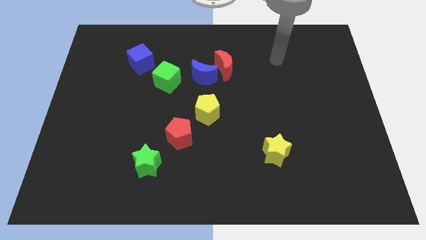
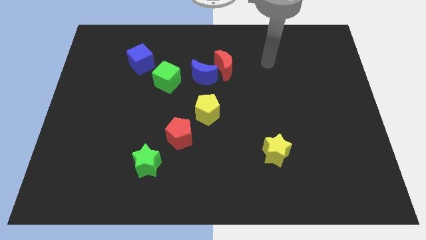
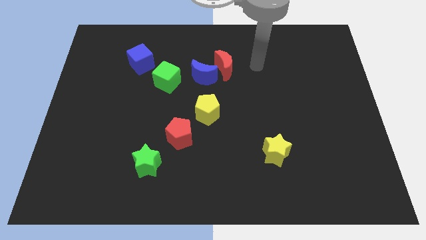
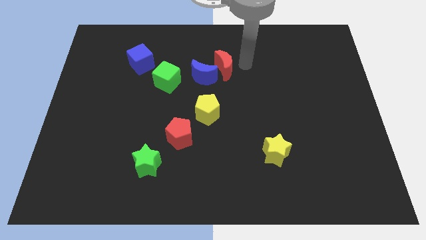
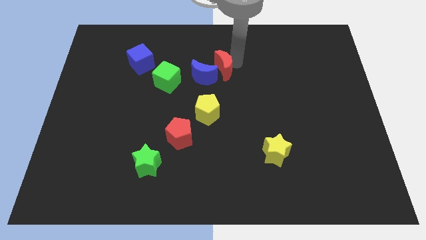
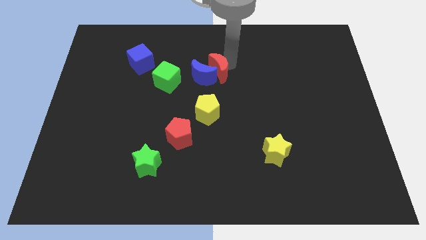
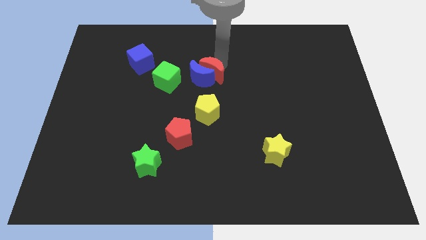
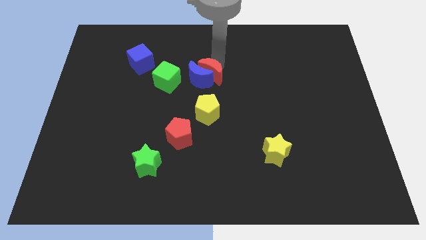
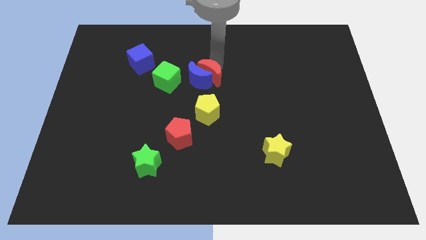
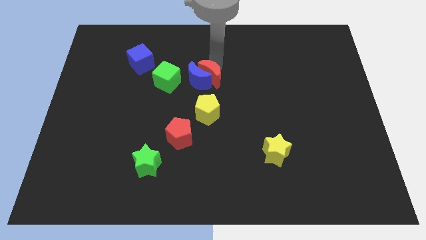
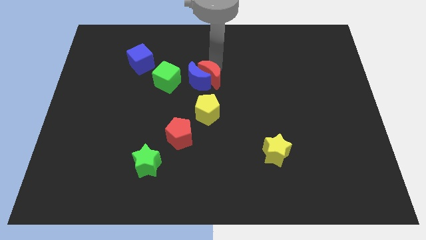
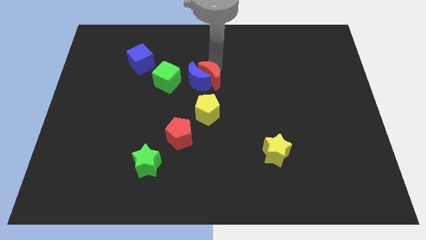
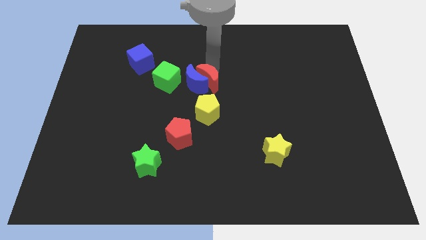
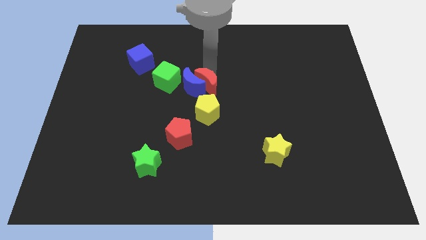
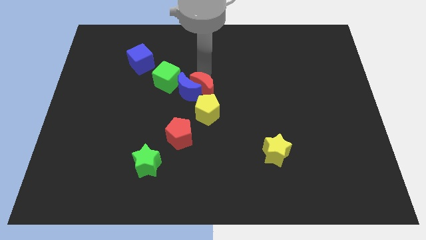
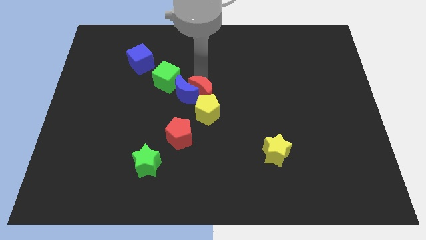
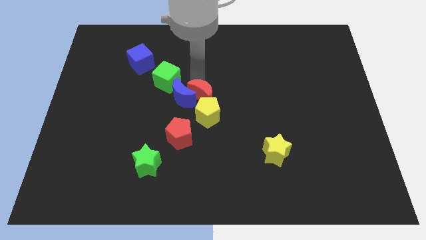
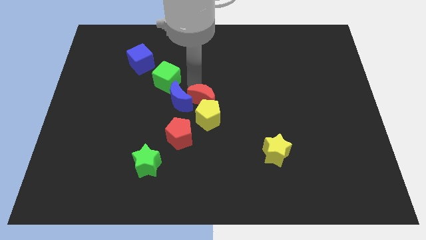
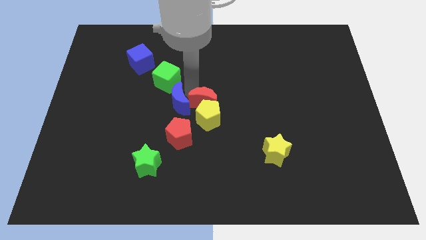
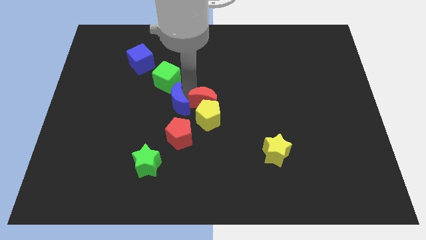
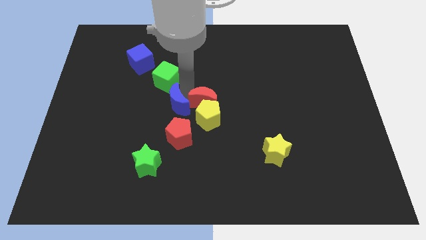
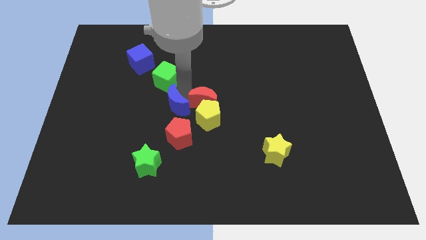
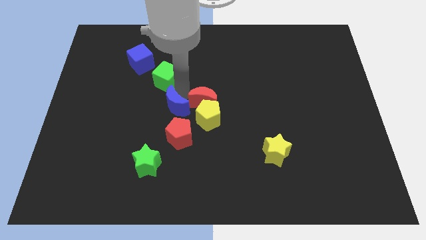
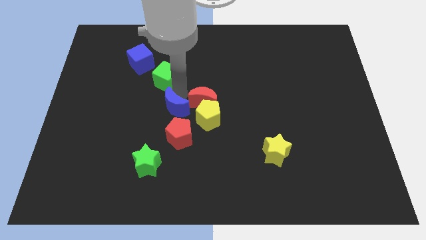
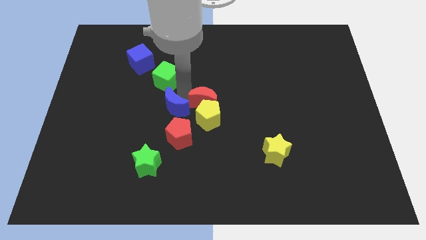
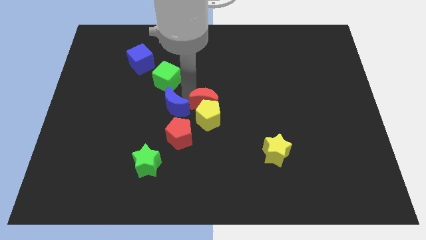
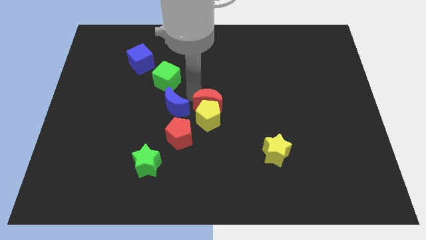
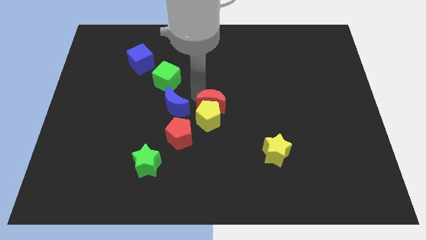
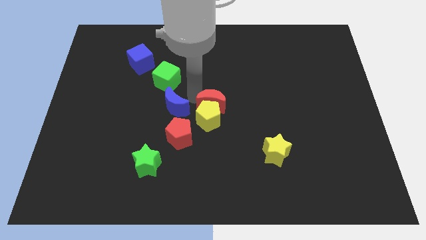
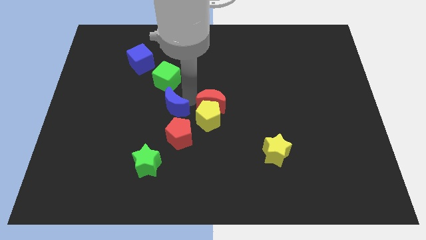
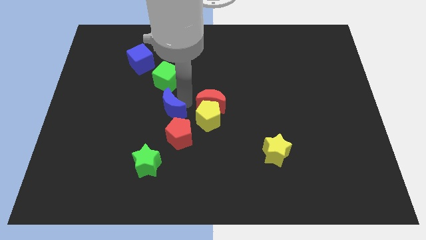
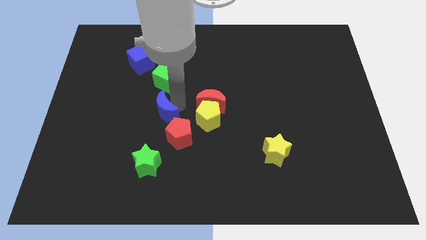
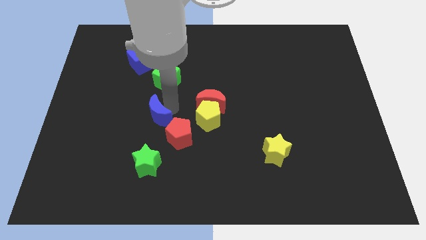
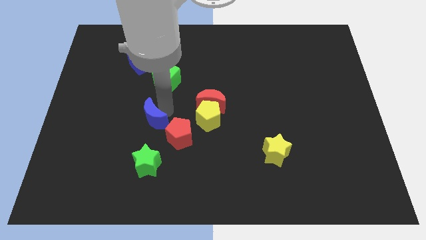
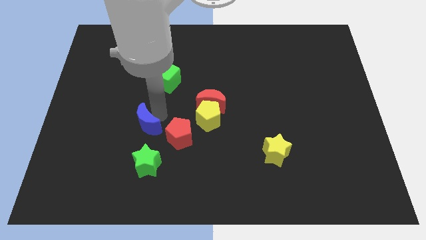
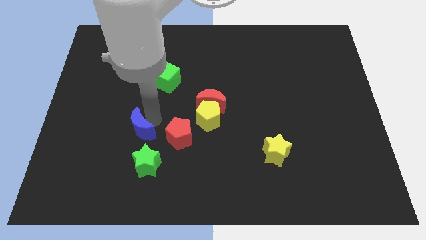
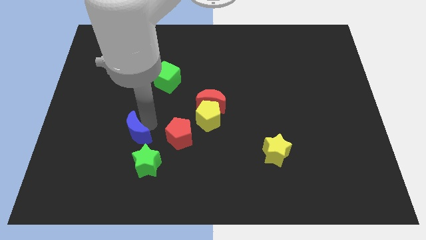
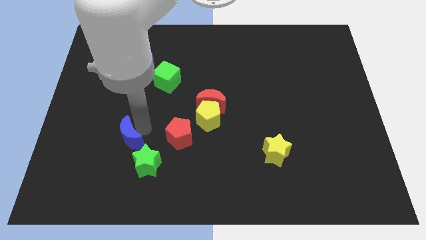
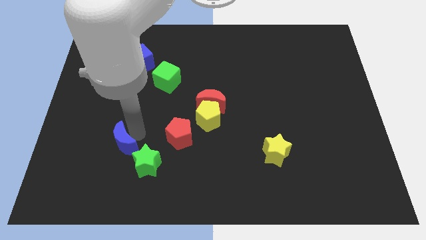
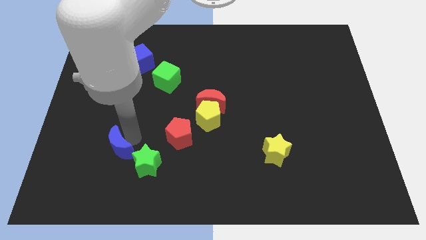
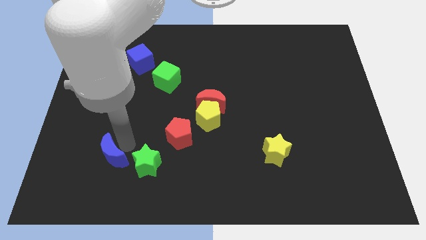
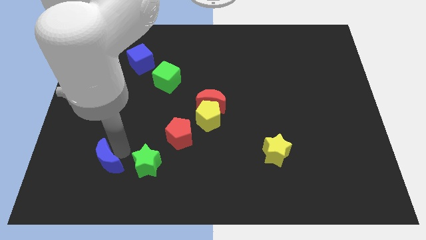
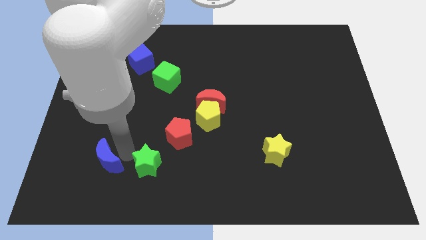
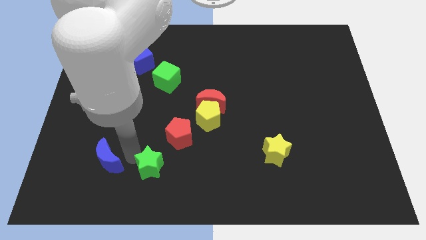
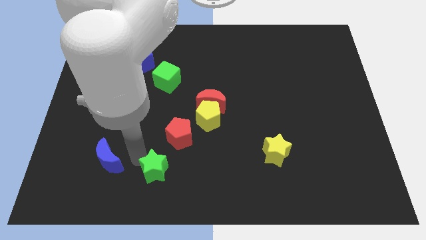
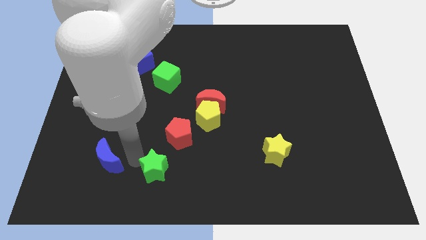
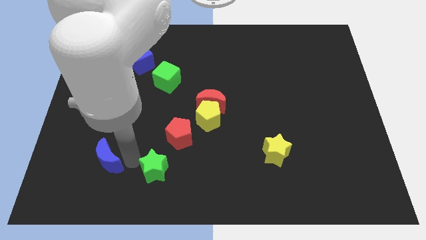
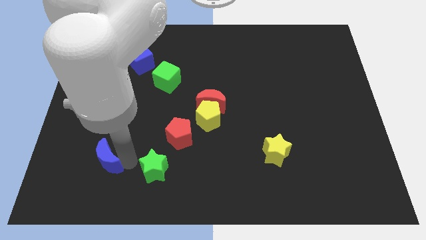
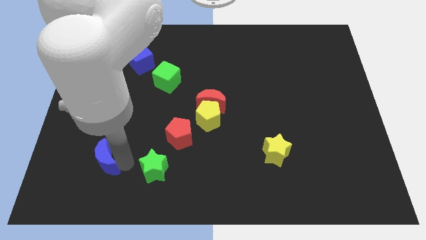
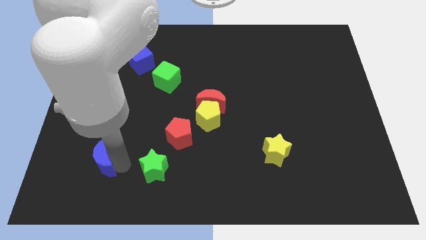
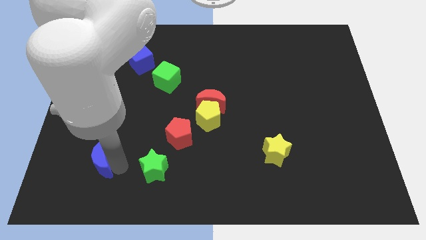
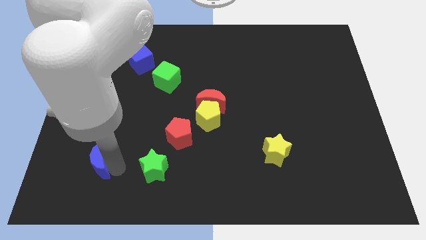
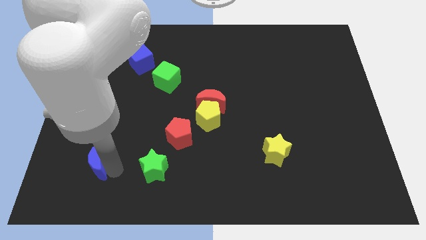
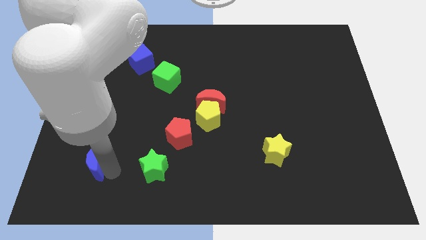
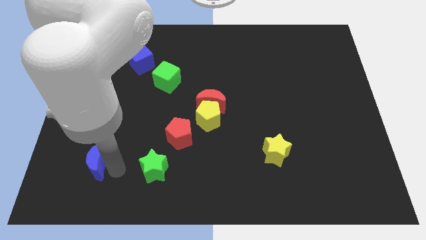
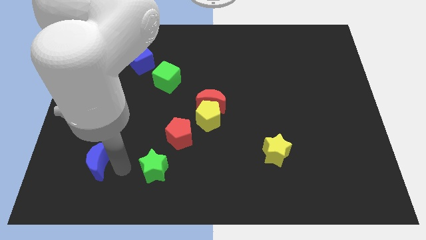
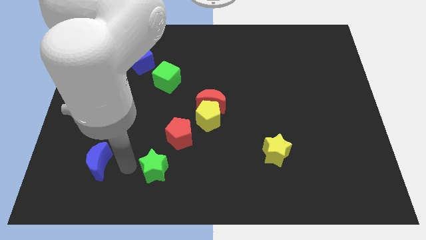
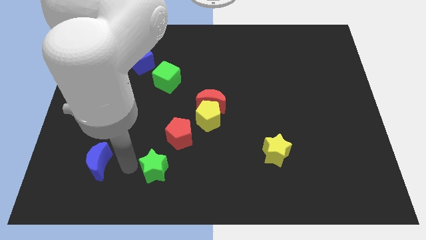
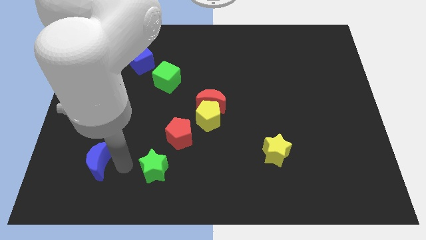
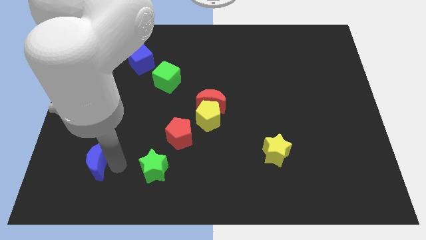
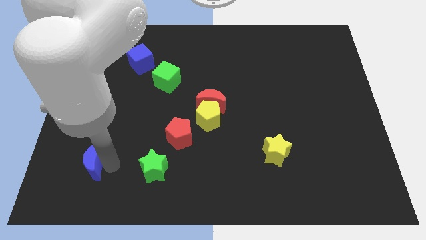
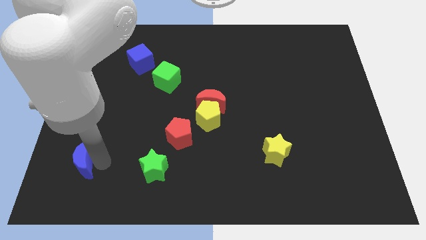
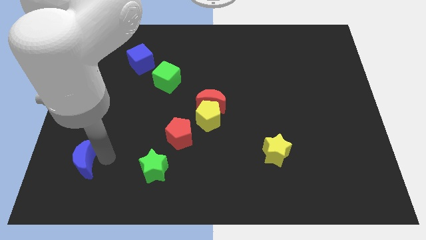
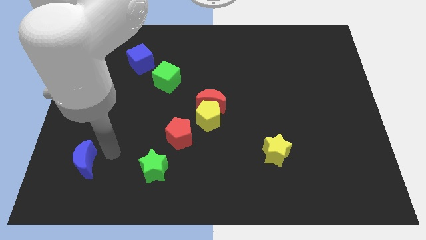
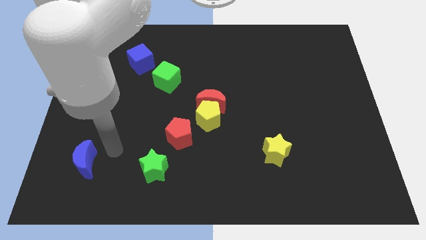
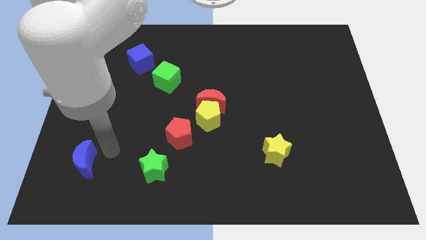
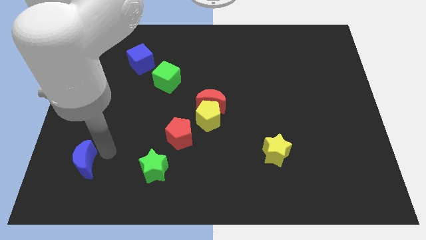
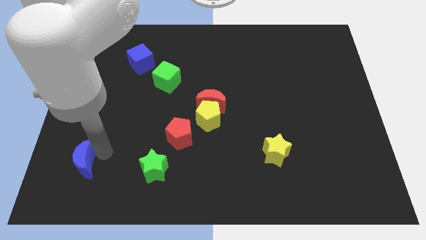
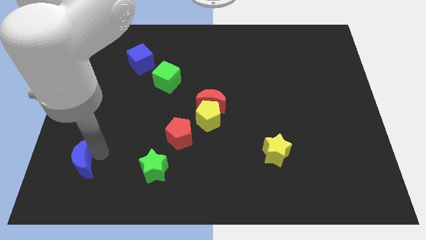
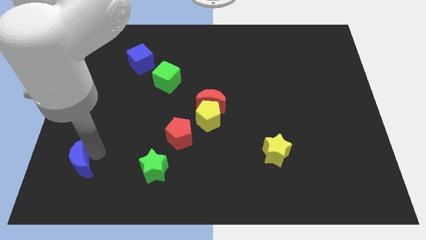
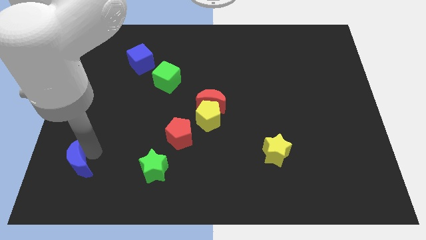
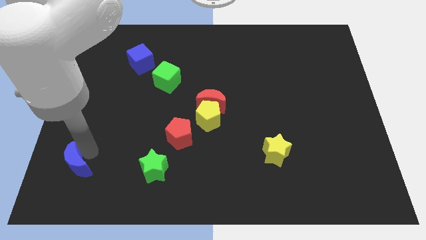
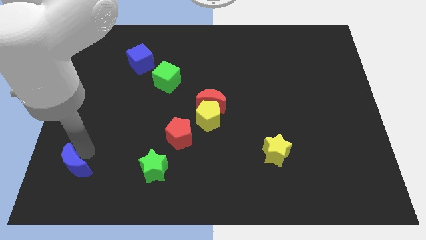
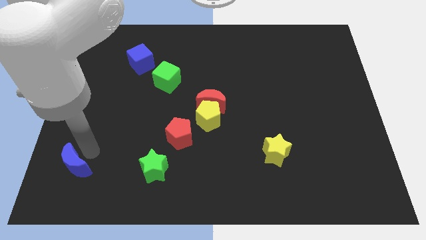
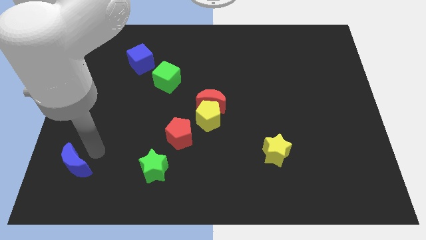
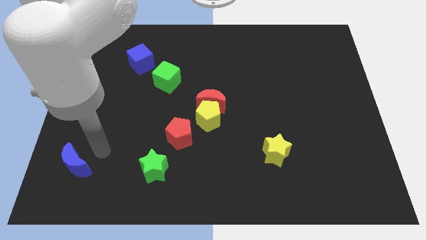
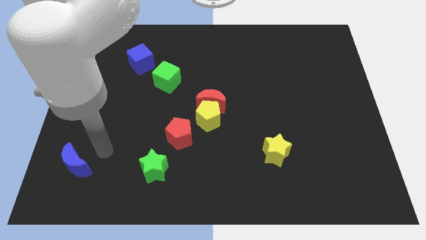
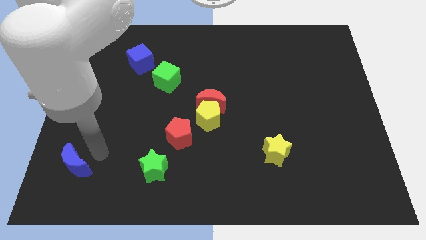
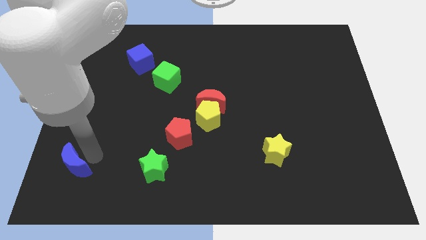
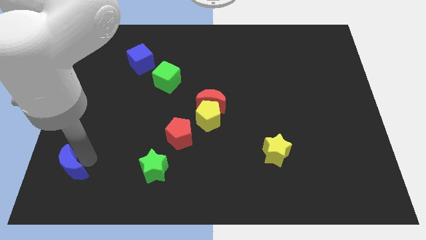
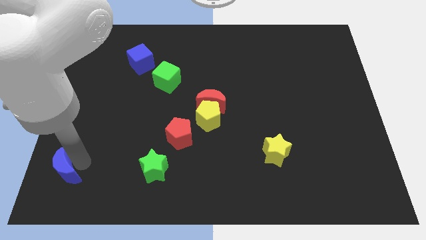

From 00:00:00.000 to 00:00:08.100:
put the blue moon to the bottom left of the board
